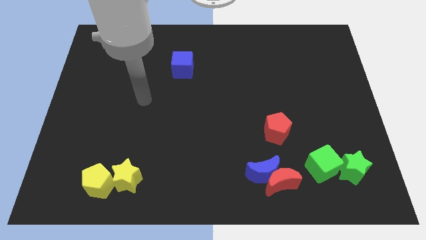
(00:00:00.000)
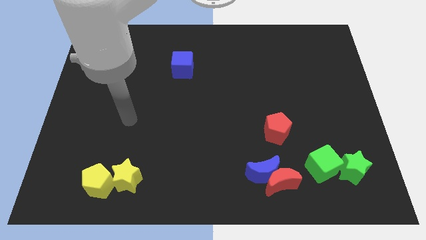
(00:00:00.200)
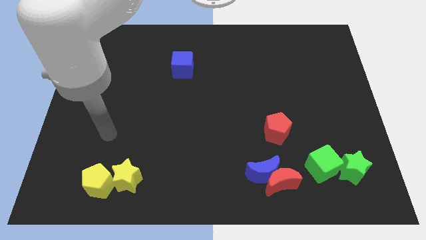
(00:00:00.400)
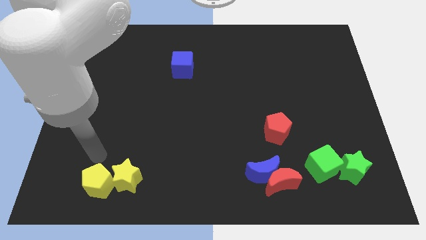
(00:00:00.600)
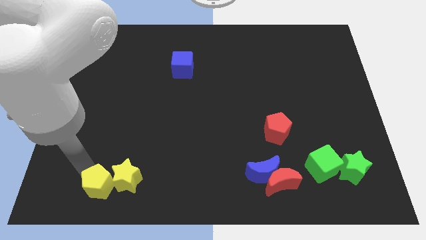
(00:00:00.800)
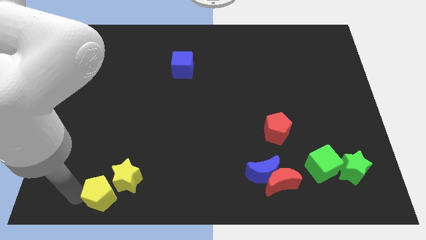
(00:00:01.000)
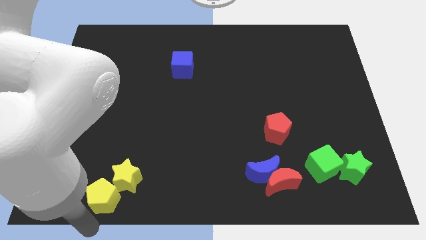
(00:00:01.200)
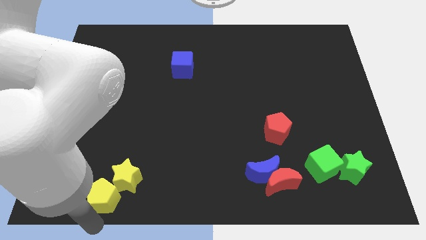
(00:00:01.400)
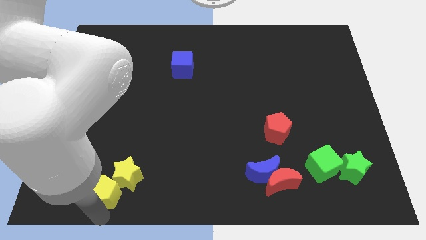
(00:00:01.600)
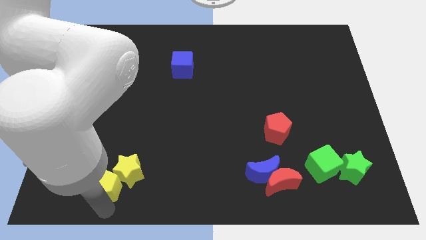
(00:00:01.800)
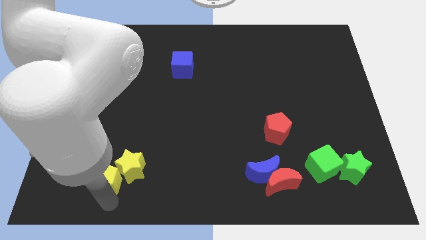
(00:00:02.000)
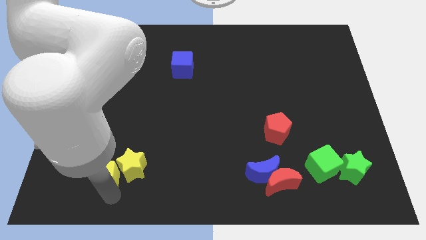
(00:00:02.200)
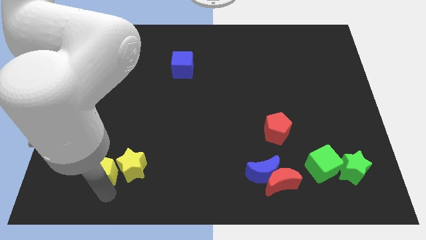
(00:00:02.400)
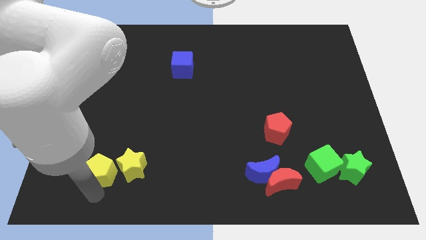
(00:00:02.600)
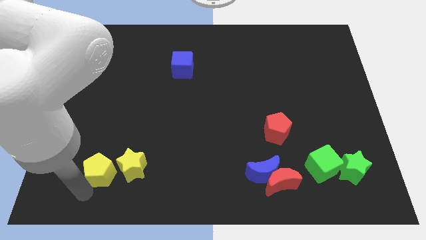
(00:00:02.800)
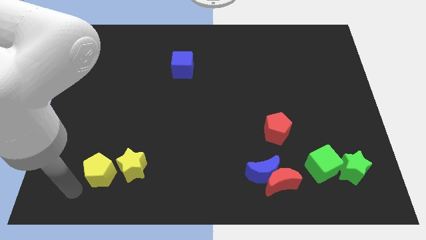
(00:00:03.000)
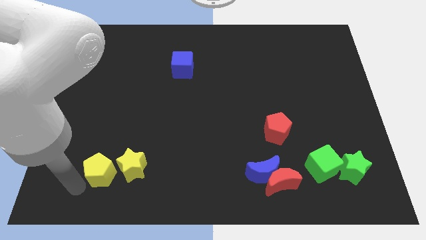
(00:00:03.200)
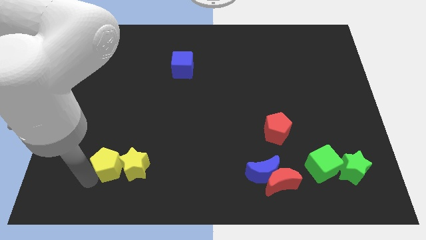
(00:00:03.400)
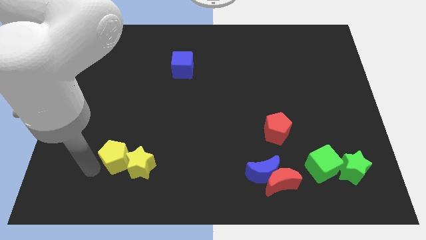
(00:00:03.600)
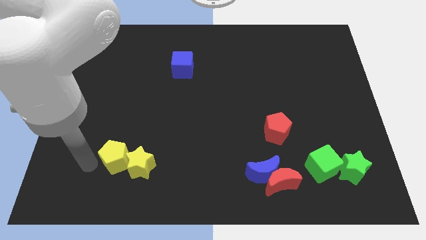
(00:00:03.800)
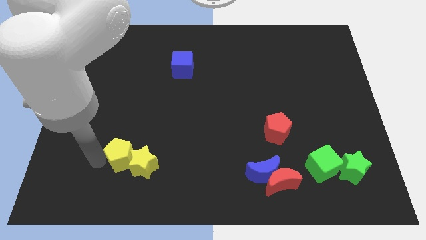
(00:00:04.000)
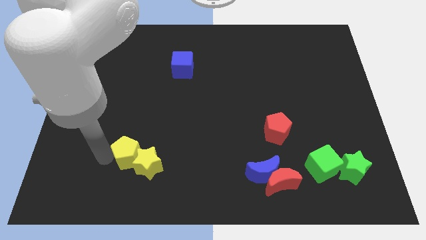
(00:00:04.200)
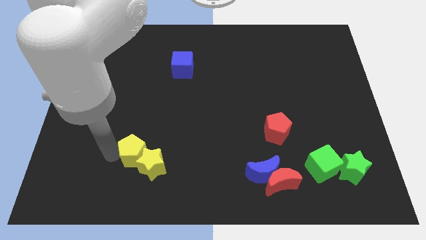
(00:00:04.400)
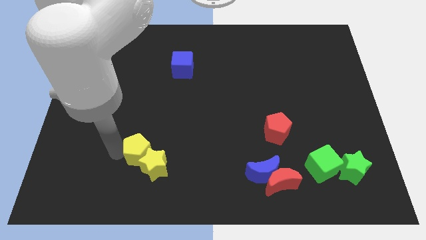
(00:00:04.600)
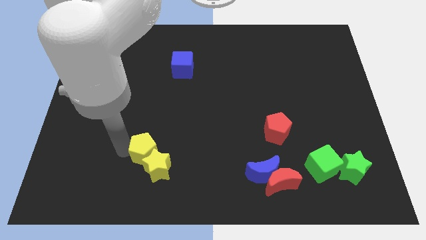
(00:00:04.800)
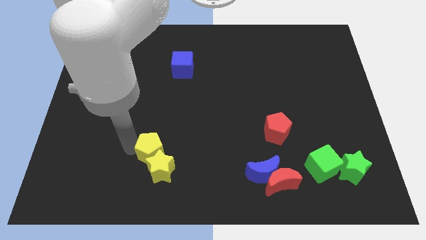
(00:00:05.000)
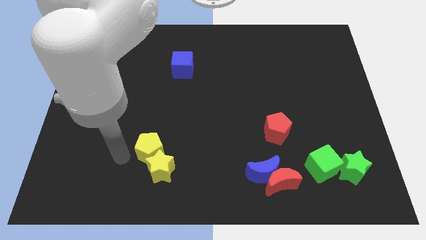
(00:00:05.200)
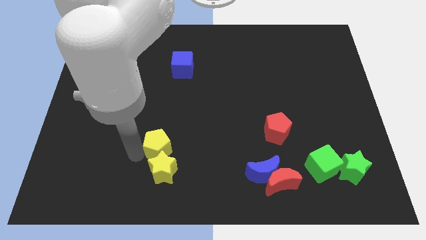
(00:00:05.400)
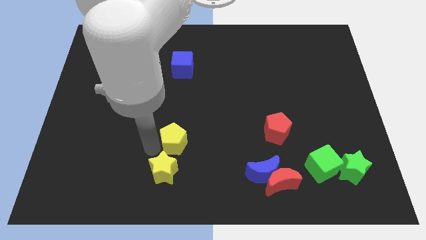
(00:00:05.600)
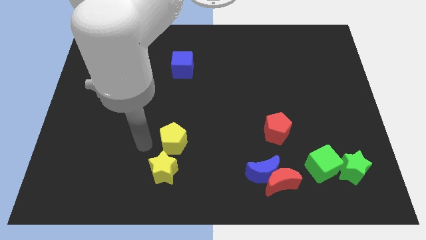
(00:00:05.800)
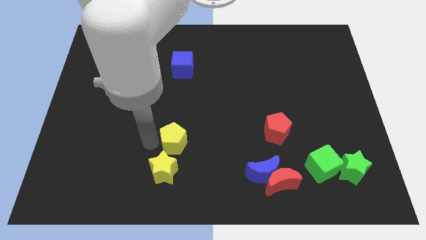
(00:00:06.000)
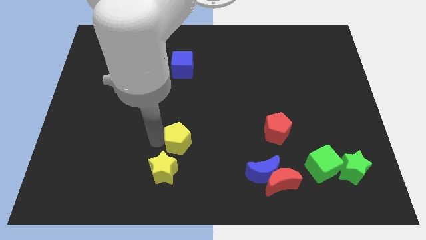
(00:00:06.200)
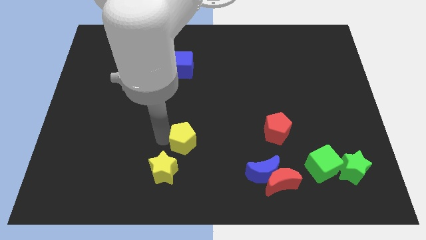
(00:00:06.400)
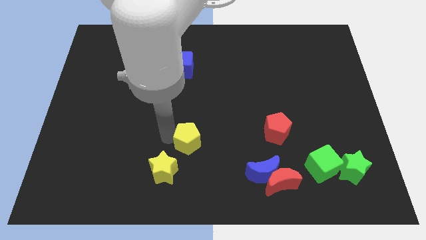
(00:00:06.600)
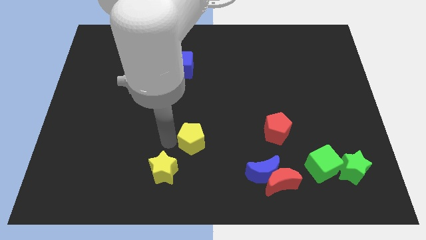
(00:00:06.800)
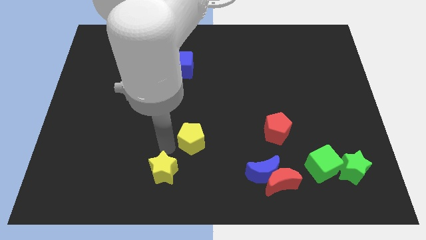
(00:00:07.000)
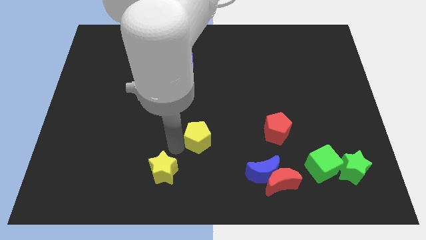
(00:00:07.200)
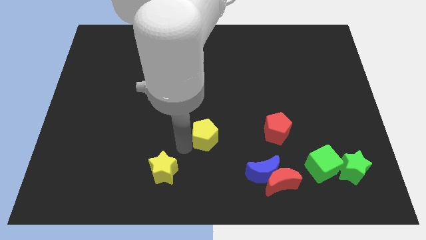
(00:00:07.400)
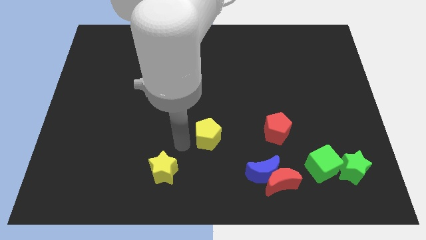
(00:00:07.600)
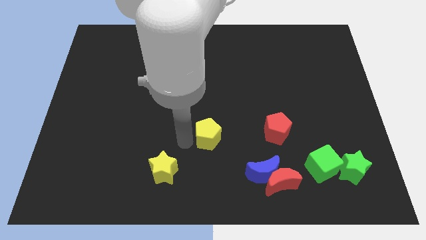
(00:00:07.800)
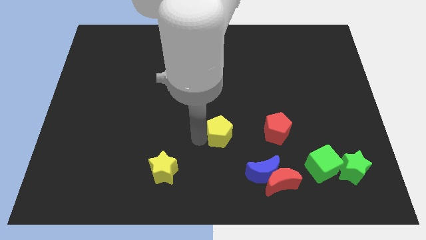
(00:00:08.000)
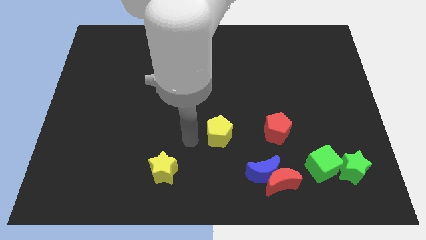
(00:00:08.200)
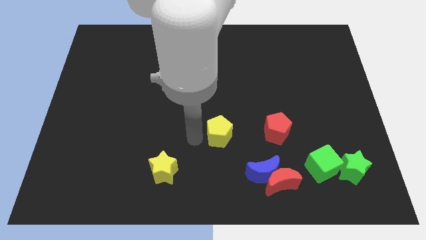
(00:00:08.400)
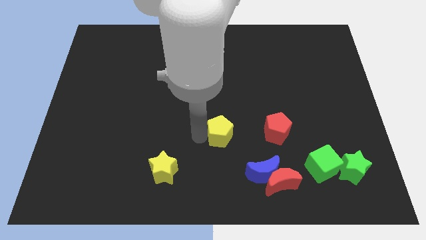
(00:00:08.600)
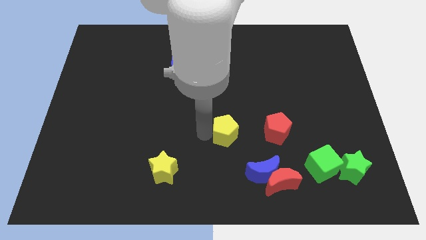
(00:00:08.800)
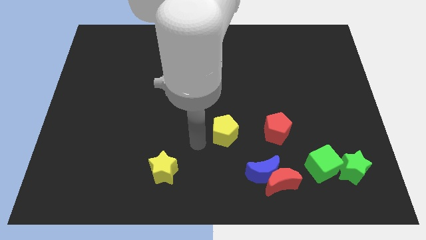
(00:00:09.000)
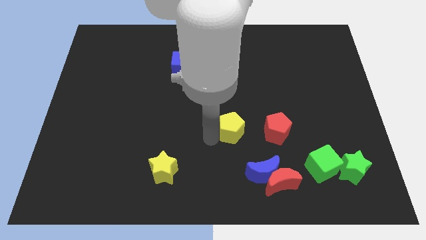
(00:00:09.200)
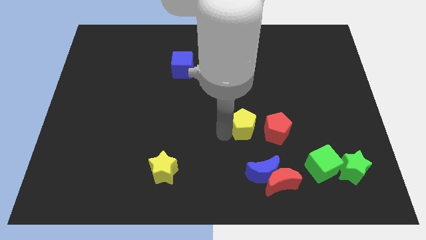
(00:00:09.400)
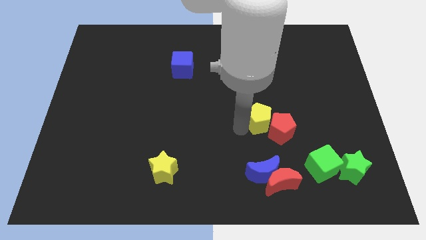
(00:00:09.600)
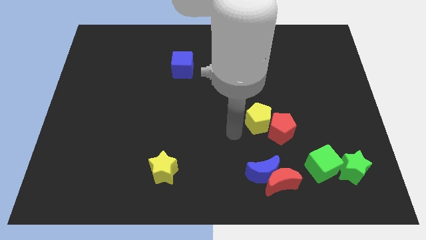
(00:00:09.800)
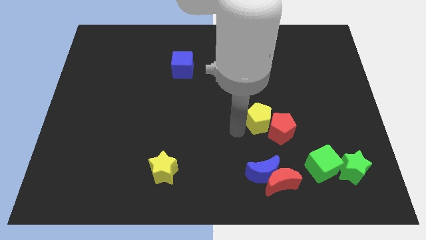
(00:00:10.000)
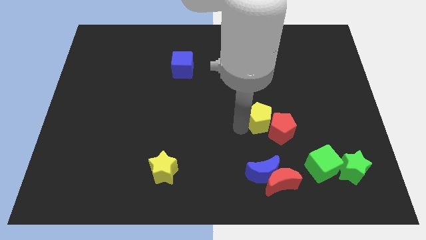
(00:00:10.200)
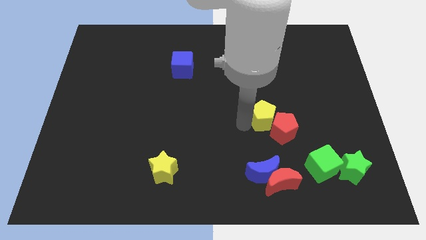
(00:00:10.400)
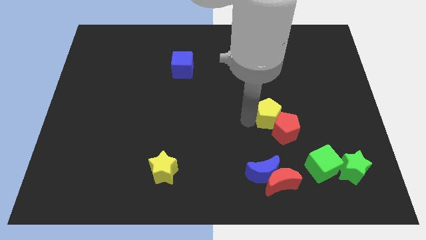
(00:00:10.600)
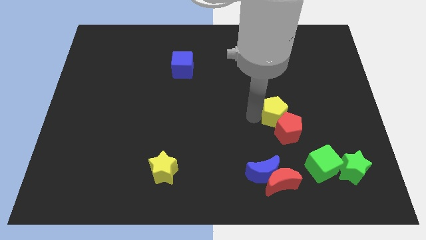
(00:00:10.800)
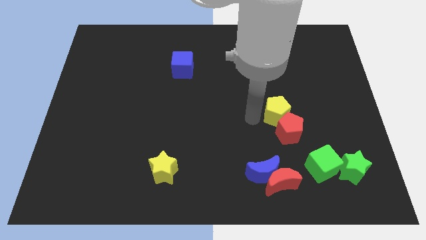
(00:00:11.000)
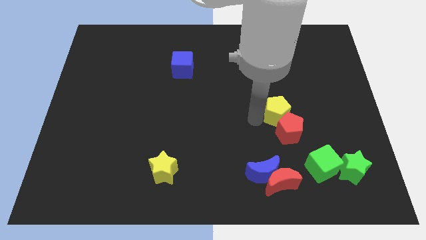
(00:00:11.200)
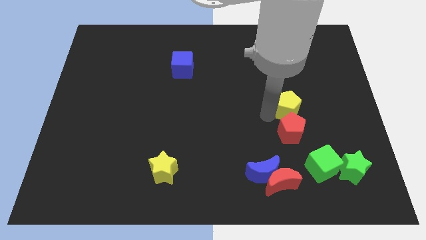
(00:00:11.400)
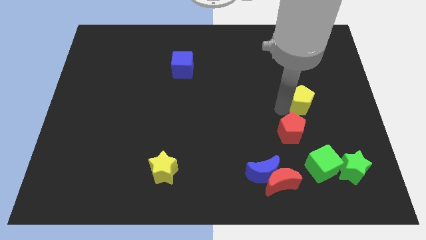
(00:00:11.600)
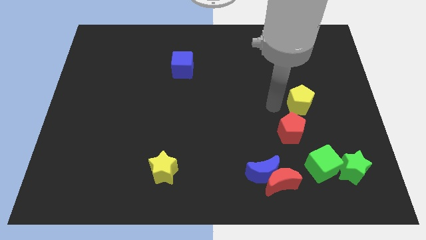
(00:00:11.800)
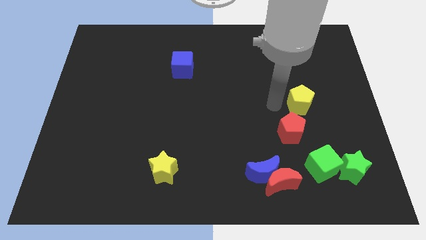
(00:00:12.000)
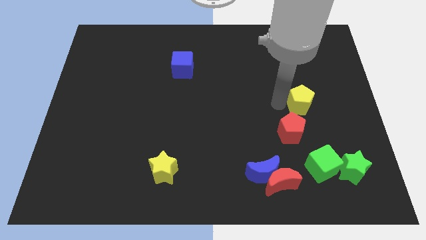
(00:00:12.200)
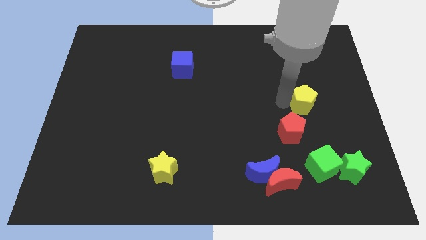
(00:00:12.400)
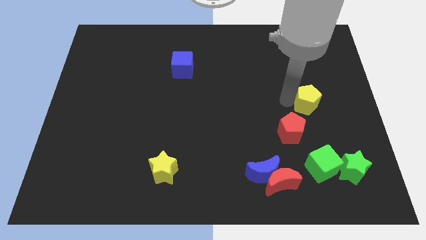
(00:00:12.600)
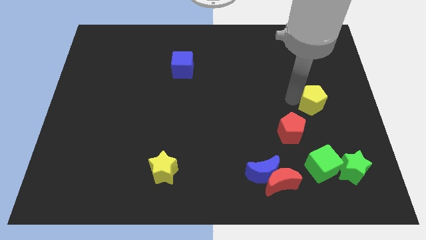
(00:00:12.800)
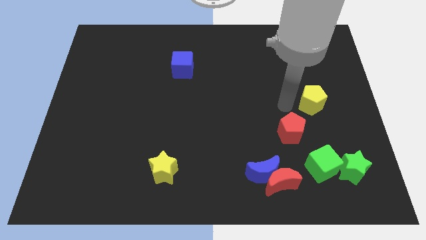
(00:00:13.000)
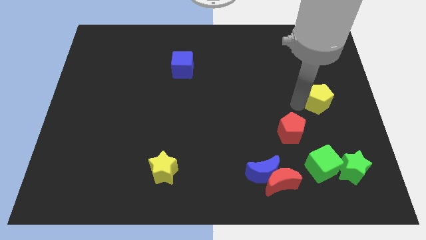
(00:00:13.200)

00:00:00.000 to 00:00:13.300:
move the yellow pentagon to the center right

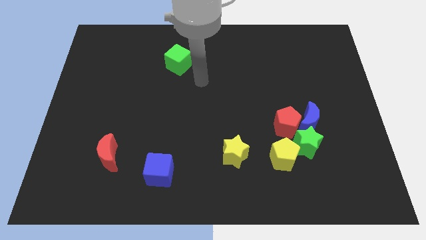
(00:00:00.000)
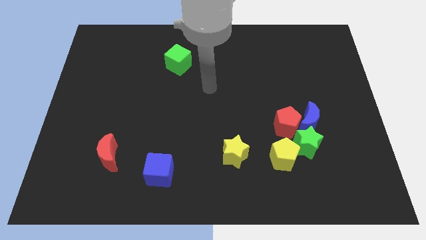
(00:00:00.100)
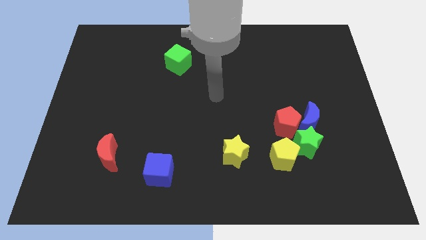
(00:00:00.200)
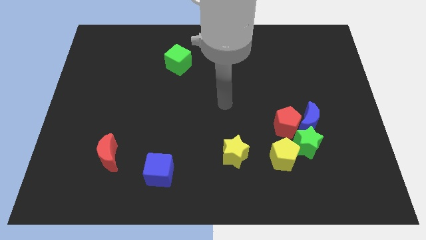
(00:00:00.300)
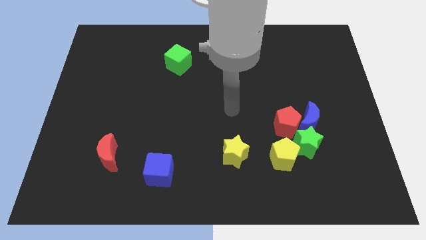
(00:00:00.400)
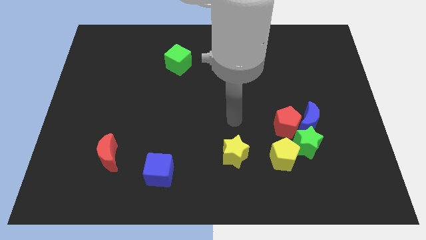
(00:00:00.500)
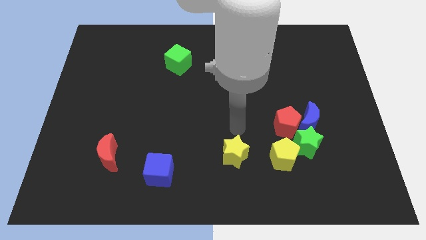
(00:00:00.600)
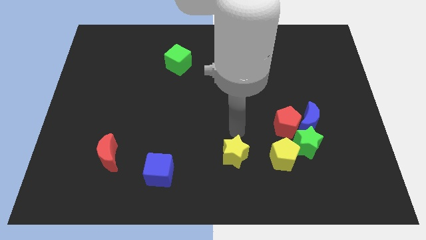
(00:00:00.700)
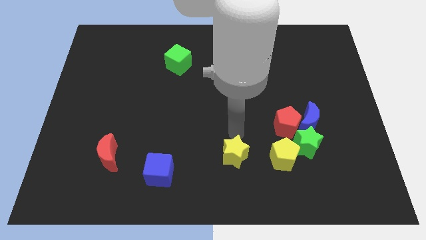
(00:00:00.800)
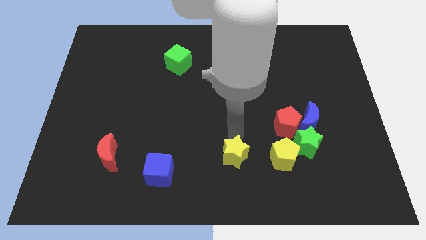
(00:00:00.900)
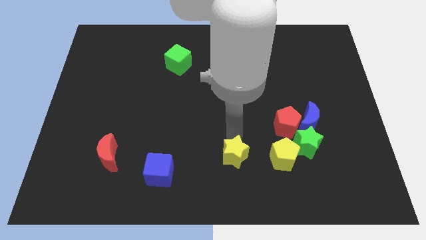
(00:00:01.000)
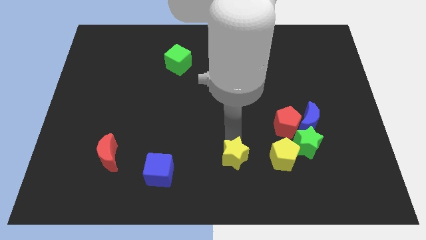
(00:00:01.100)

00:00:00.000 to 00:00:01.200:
put the yellow star to the bottom side
